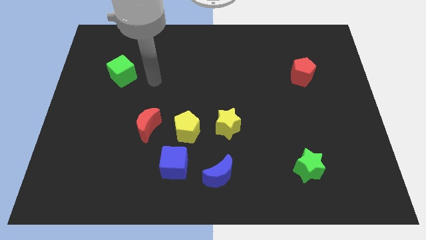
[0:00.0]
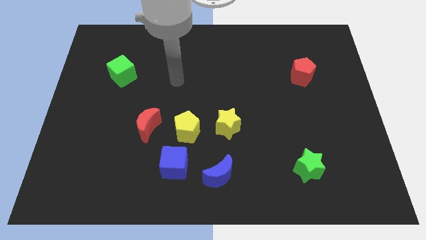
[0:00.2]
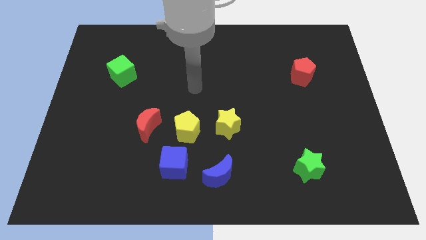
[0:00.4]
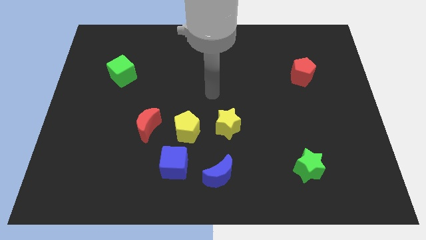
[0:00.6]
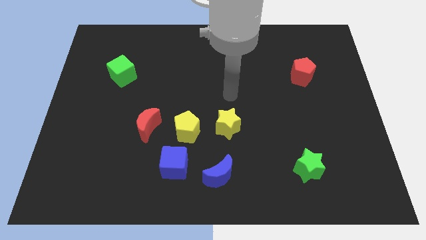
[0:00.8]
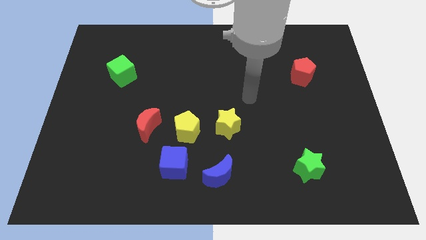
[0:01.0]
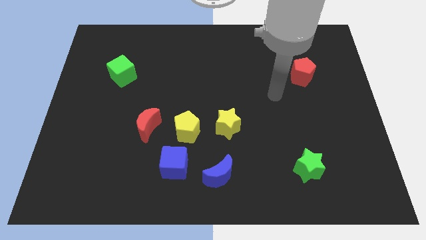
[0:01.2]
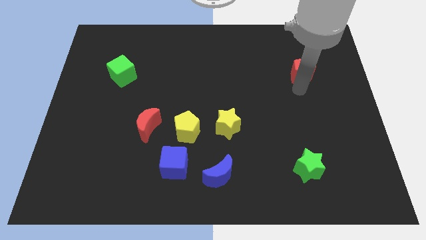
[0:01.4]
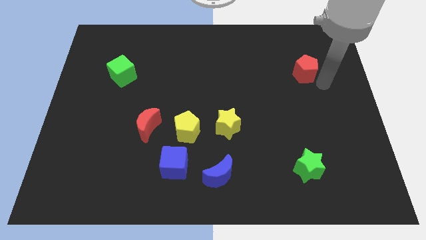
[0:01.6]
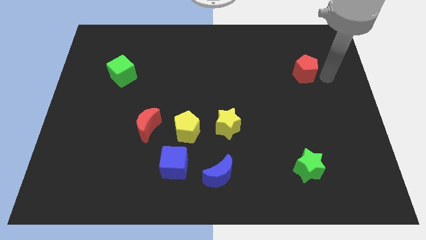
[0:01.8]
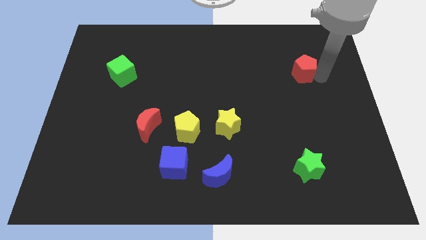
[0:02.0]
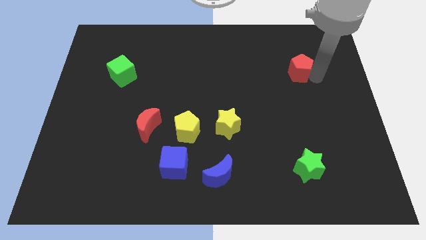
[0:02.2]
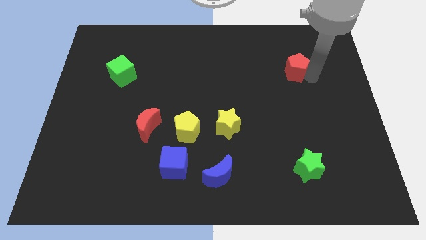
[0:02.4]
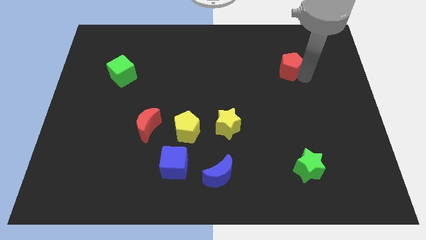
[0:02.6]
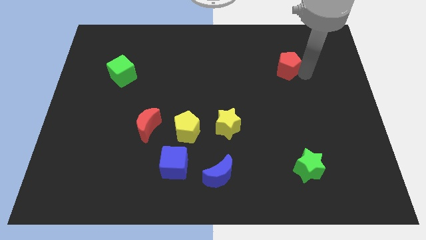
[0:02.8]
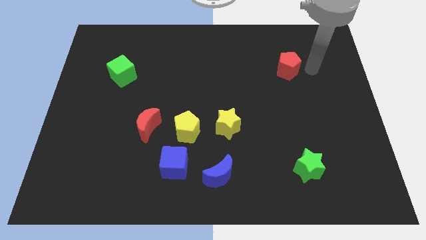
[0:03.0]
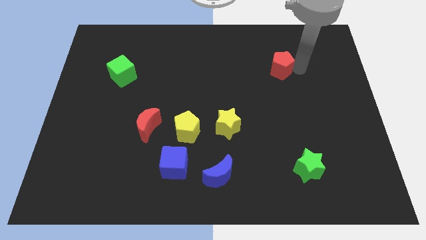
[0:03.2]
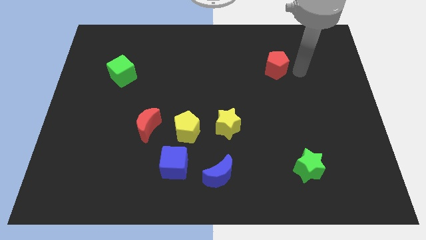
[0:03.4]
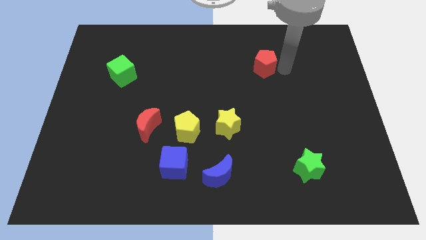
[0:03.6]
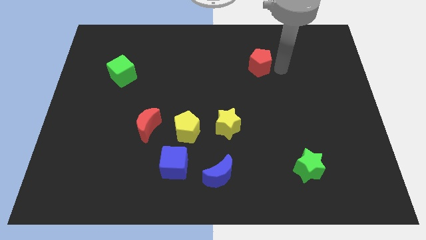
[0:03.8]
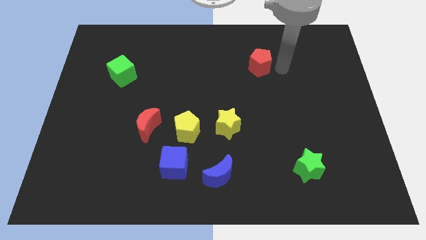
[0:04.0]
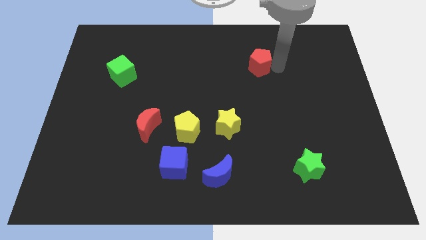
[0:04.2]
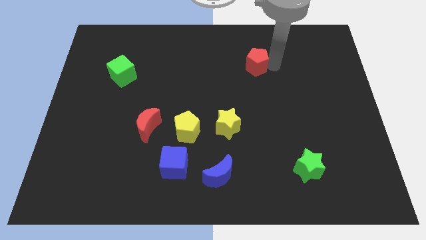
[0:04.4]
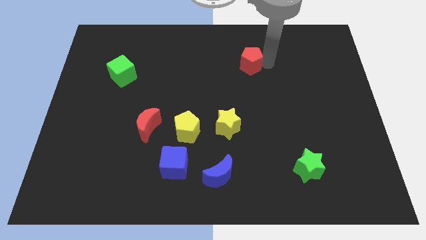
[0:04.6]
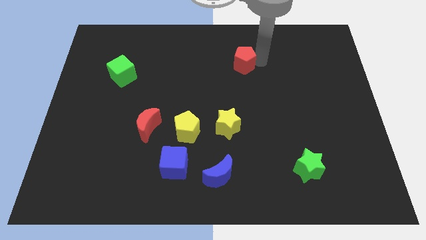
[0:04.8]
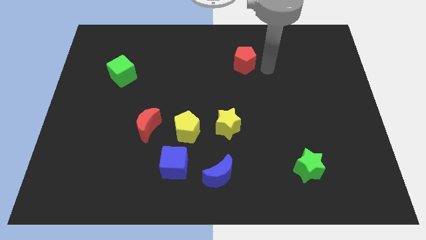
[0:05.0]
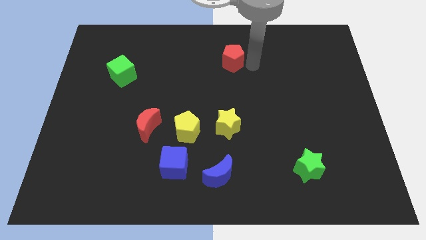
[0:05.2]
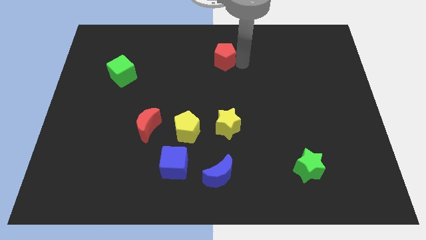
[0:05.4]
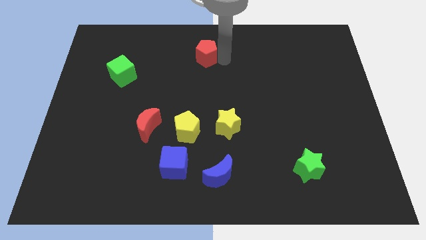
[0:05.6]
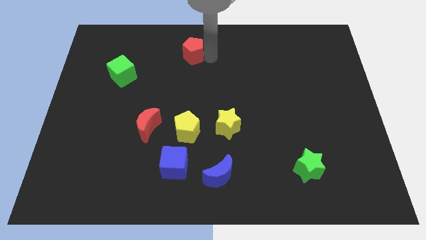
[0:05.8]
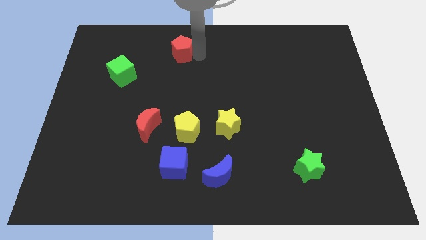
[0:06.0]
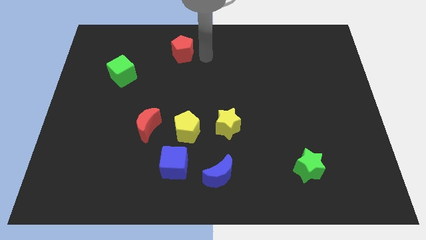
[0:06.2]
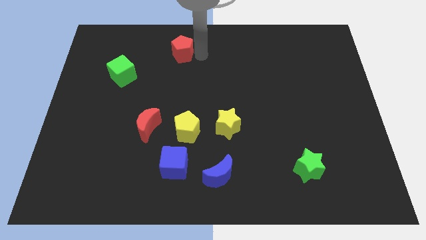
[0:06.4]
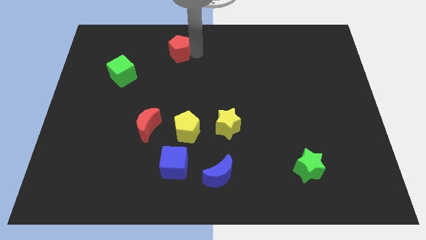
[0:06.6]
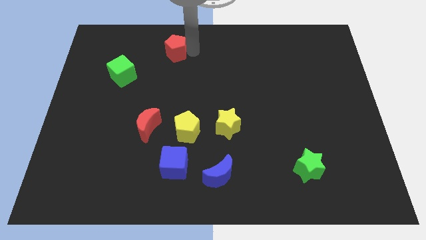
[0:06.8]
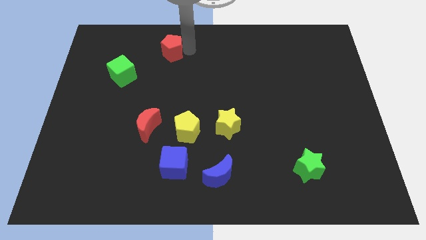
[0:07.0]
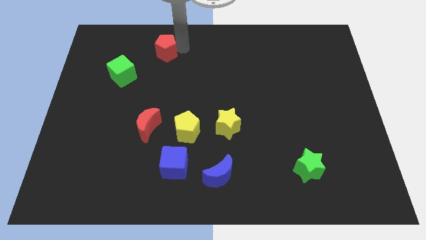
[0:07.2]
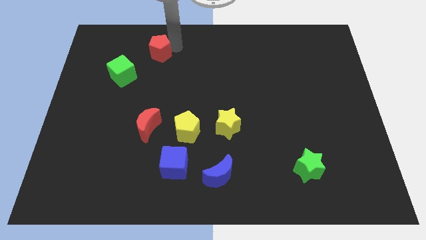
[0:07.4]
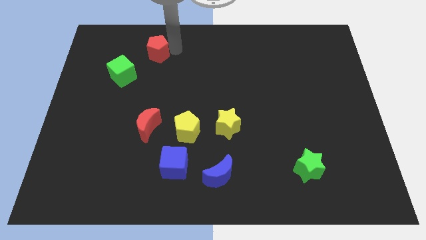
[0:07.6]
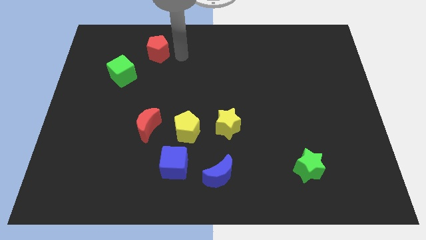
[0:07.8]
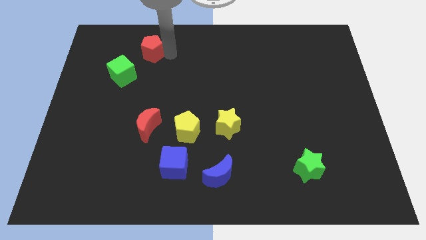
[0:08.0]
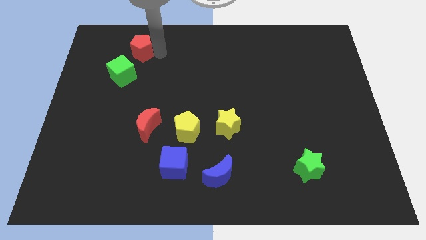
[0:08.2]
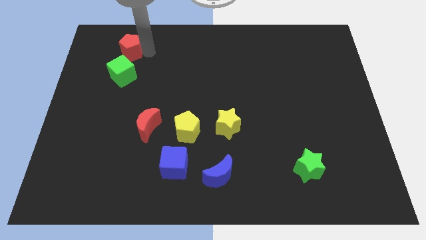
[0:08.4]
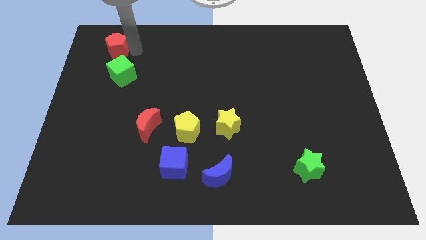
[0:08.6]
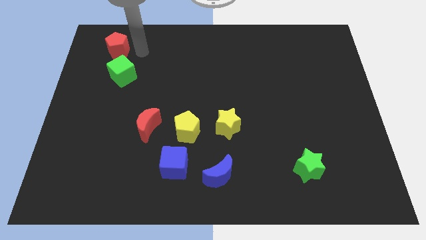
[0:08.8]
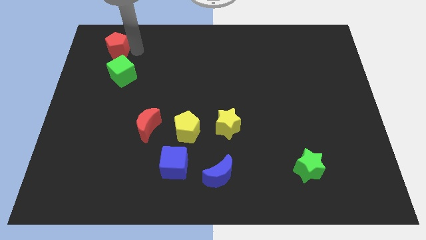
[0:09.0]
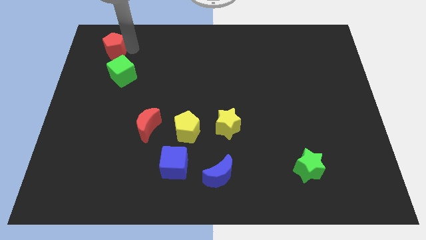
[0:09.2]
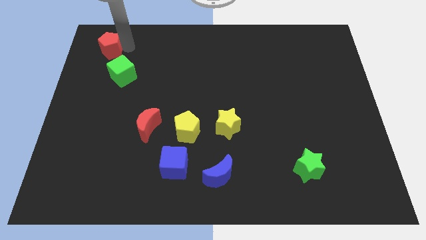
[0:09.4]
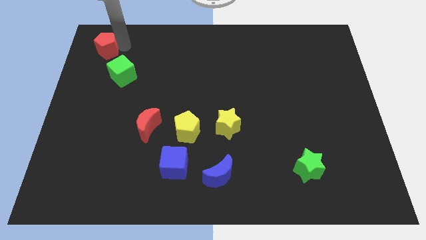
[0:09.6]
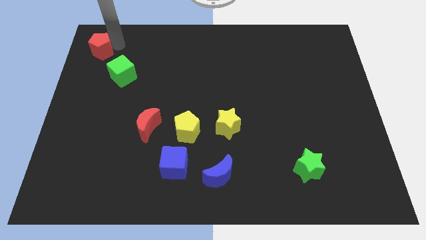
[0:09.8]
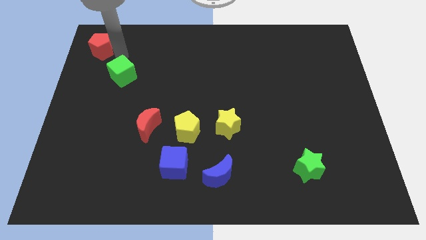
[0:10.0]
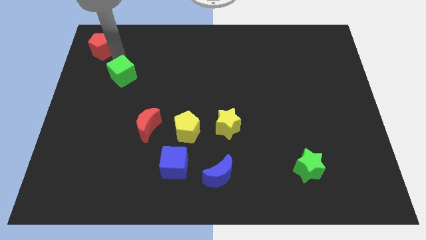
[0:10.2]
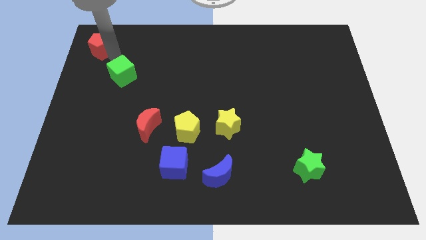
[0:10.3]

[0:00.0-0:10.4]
push the red pentagon to the top left
